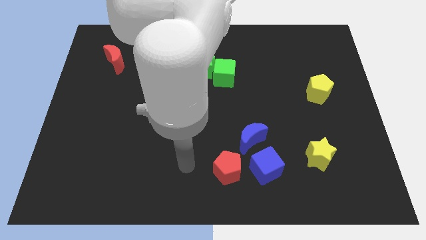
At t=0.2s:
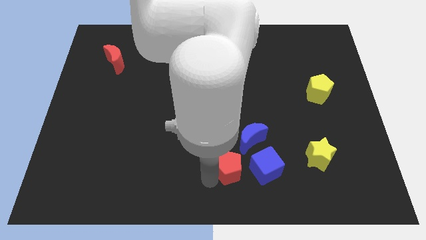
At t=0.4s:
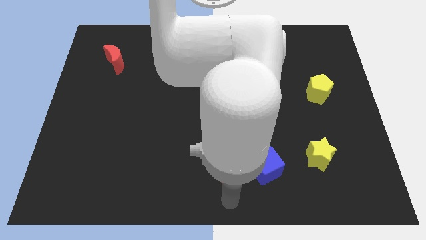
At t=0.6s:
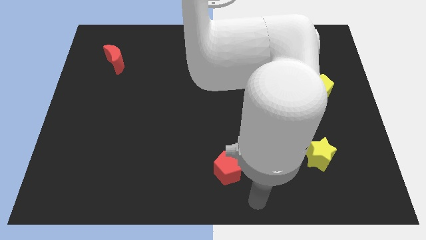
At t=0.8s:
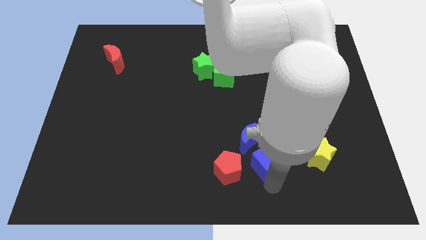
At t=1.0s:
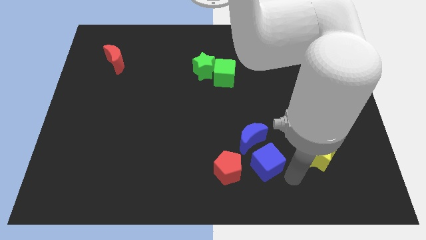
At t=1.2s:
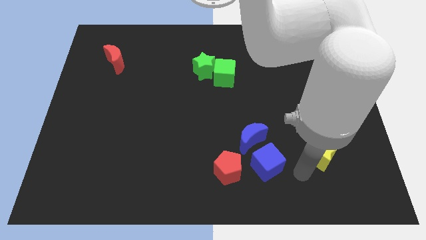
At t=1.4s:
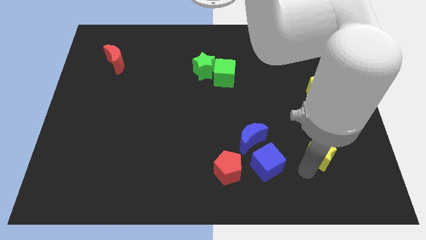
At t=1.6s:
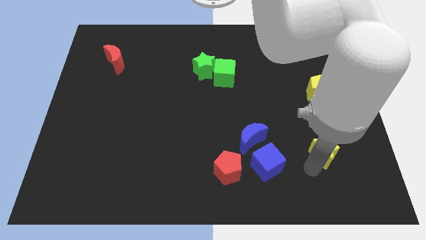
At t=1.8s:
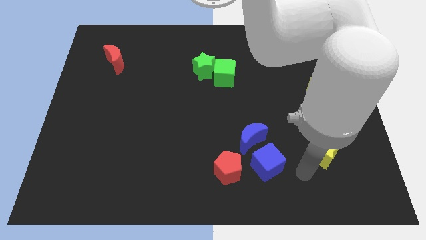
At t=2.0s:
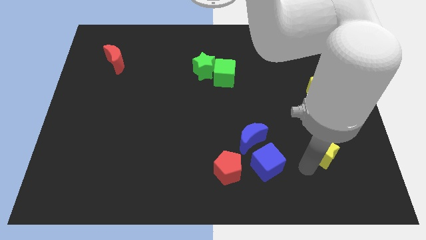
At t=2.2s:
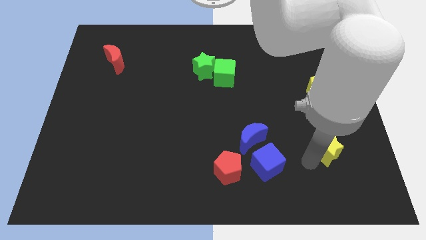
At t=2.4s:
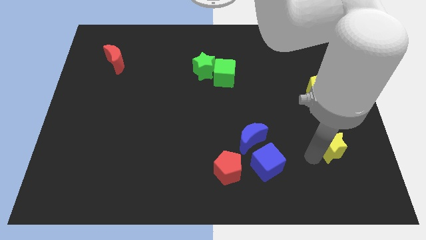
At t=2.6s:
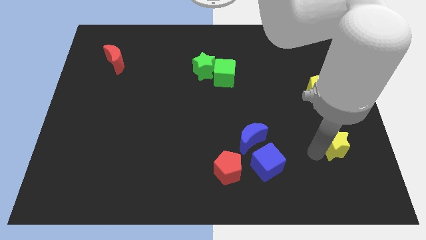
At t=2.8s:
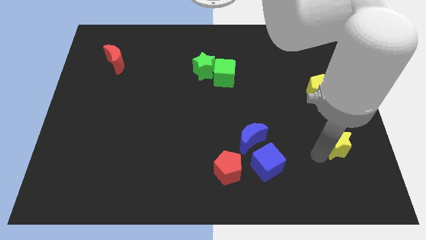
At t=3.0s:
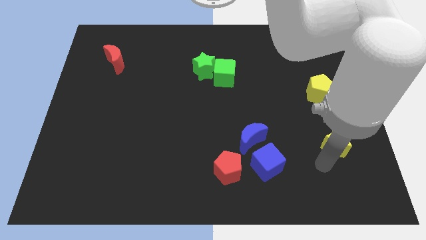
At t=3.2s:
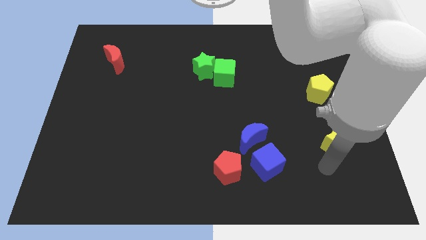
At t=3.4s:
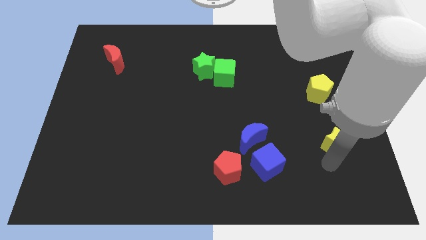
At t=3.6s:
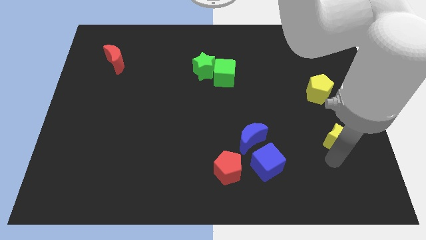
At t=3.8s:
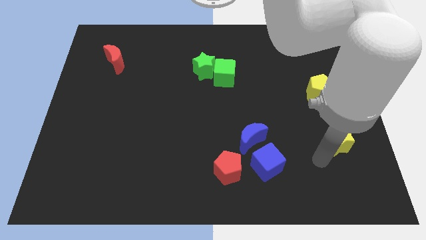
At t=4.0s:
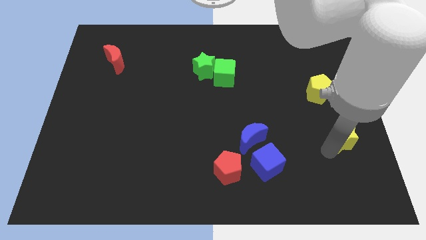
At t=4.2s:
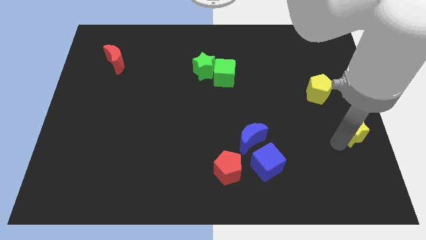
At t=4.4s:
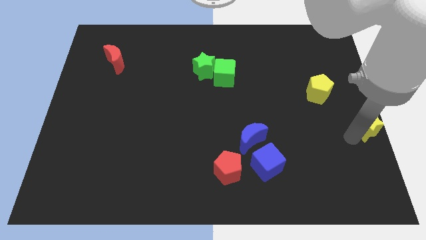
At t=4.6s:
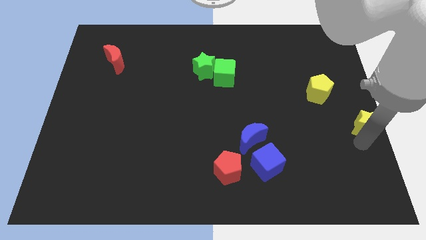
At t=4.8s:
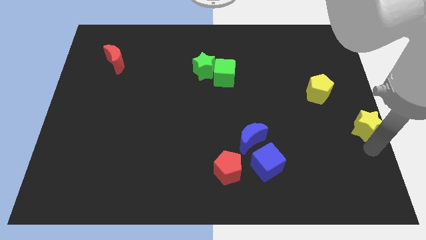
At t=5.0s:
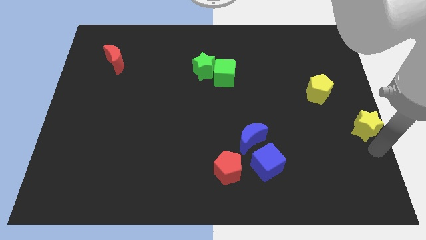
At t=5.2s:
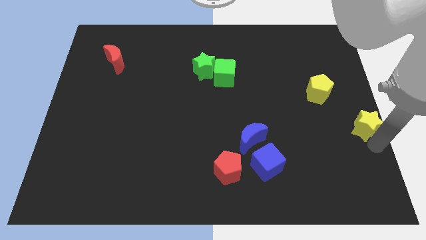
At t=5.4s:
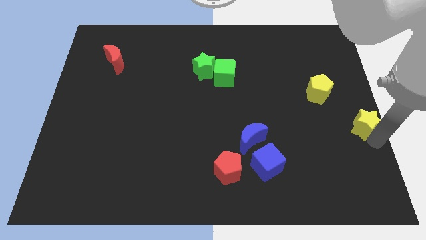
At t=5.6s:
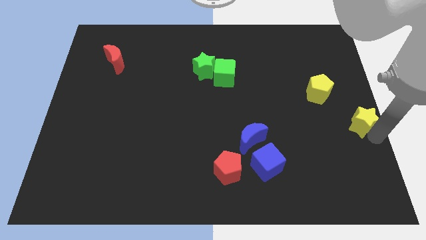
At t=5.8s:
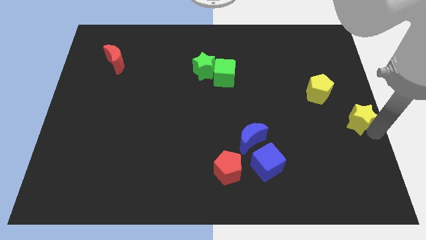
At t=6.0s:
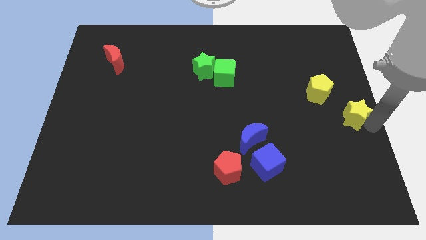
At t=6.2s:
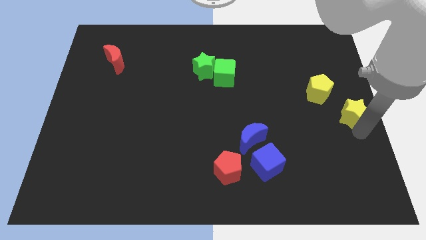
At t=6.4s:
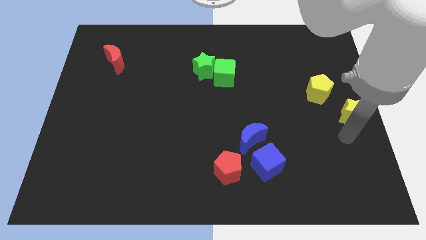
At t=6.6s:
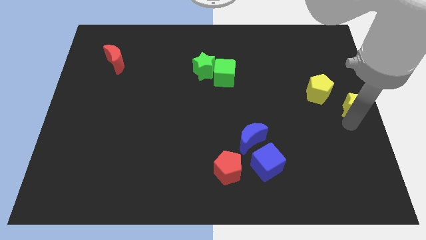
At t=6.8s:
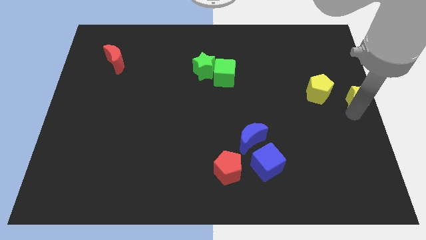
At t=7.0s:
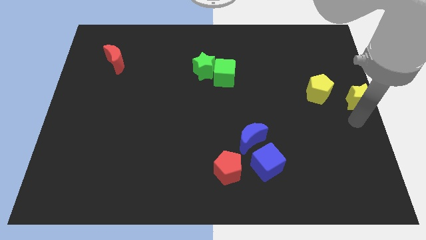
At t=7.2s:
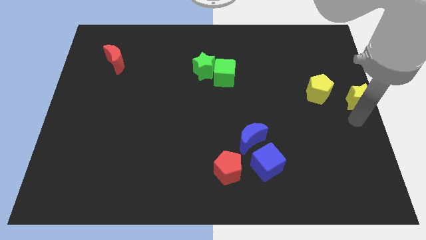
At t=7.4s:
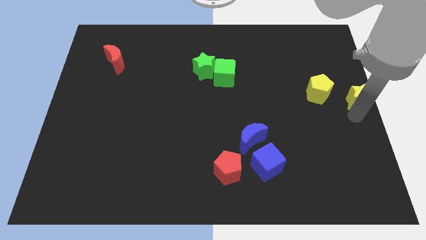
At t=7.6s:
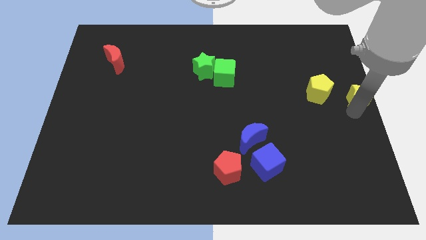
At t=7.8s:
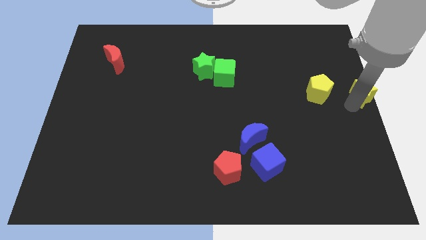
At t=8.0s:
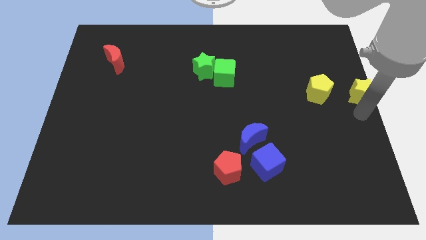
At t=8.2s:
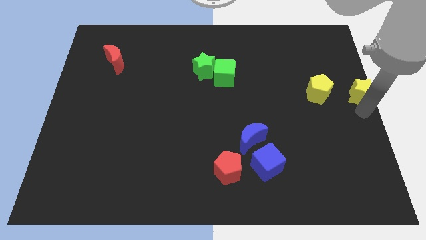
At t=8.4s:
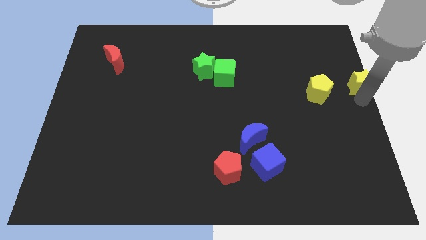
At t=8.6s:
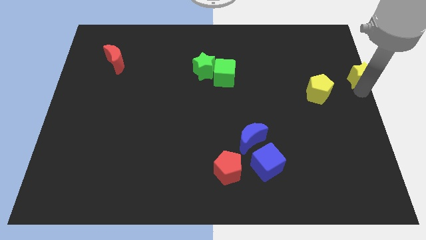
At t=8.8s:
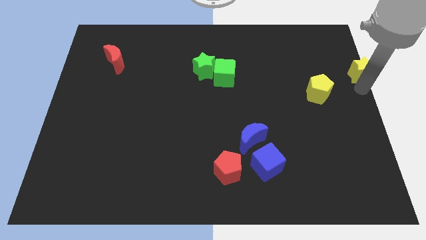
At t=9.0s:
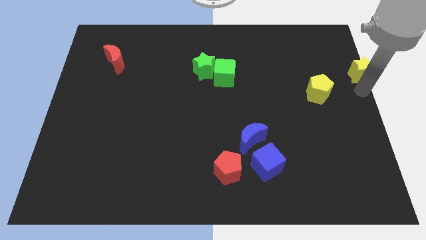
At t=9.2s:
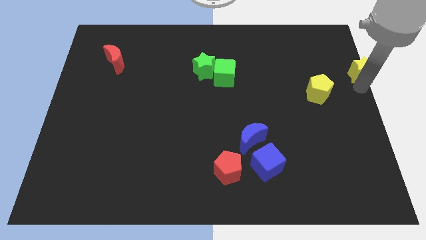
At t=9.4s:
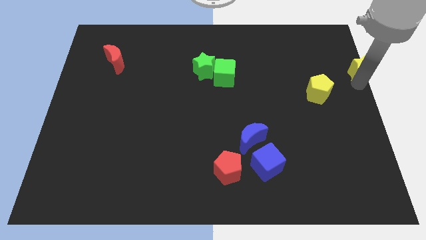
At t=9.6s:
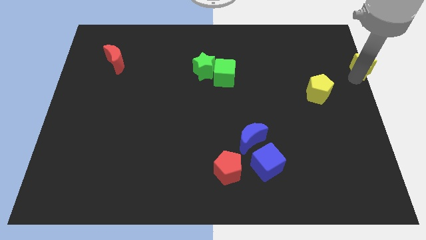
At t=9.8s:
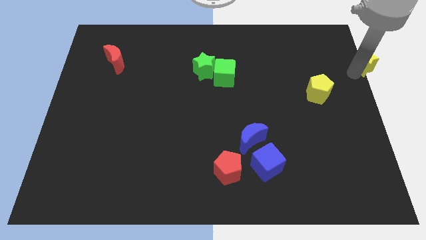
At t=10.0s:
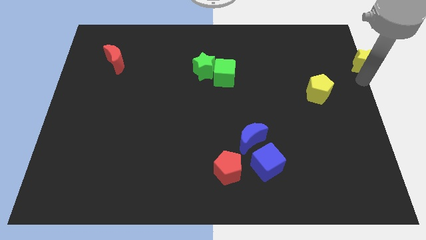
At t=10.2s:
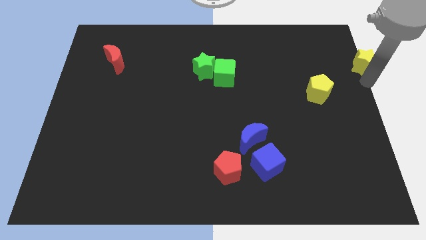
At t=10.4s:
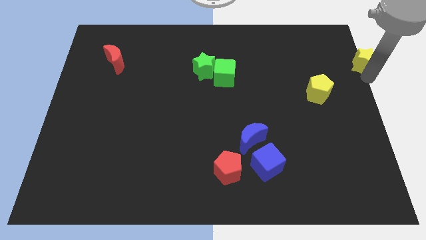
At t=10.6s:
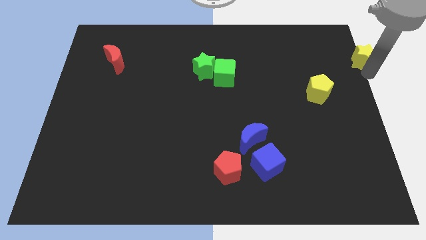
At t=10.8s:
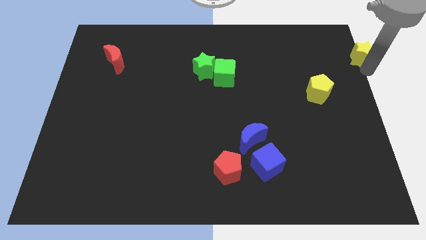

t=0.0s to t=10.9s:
push the yellow star to the top right corner
